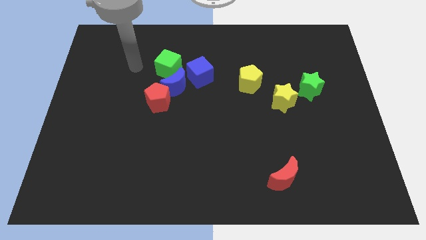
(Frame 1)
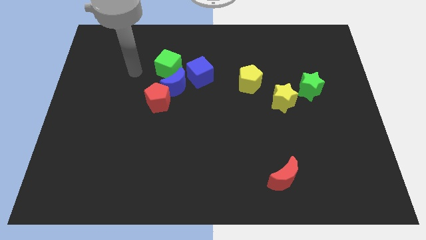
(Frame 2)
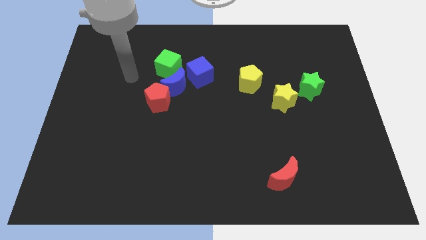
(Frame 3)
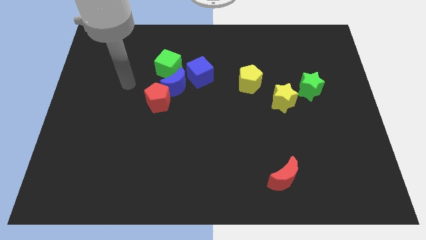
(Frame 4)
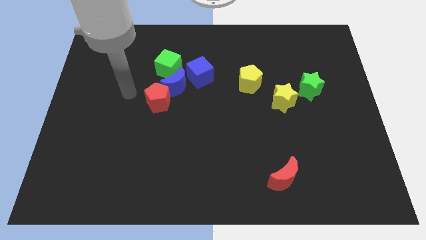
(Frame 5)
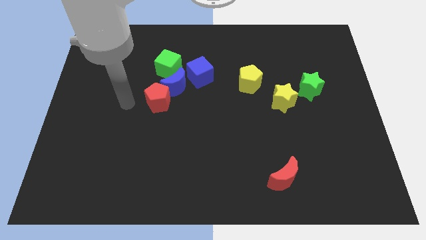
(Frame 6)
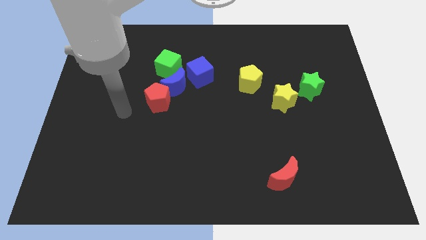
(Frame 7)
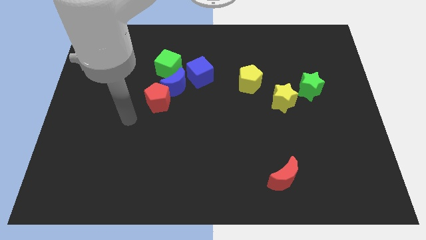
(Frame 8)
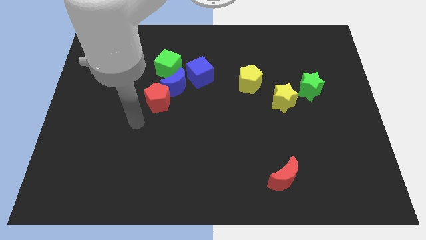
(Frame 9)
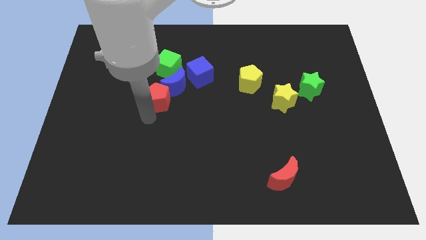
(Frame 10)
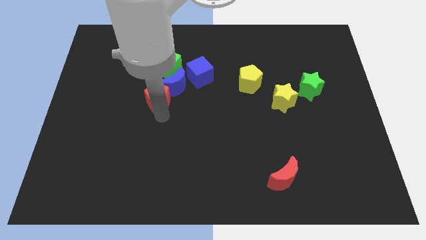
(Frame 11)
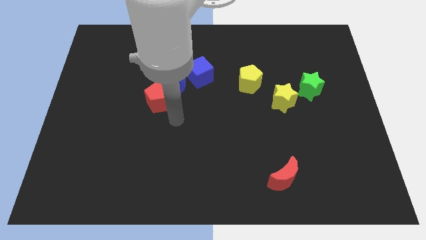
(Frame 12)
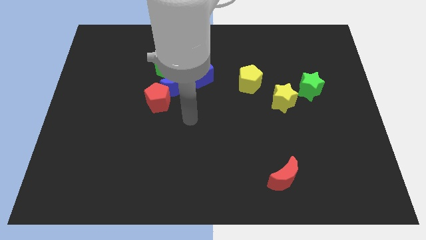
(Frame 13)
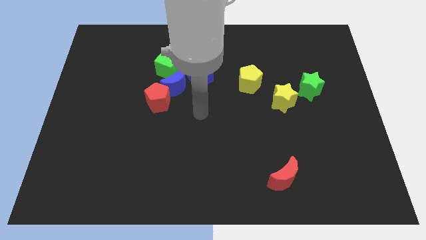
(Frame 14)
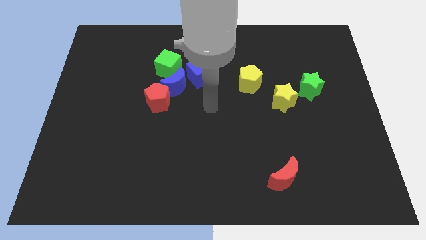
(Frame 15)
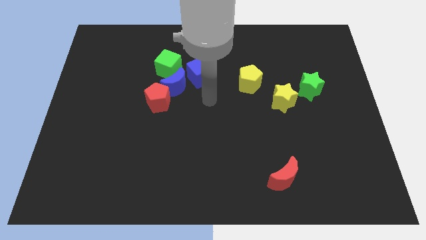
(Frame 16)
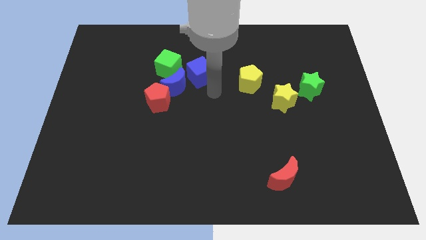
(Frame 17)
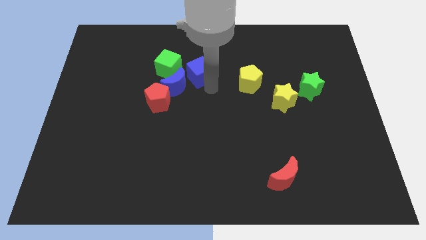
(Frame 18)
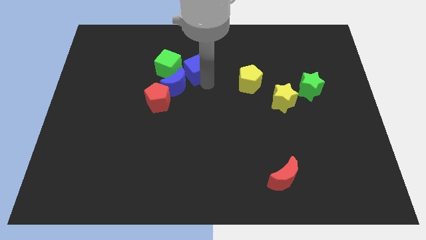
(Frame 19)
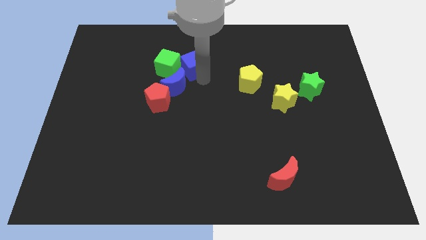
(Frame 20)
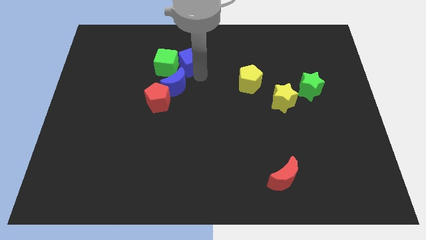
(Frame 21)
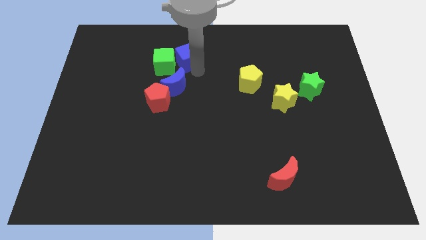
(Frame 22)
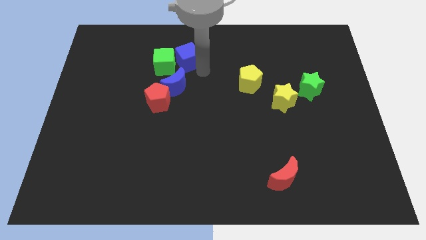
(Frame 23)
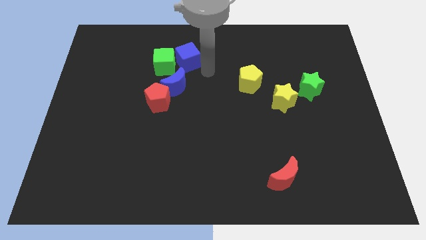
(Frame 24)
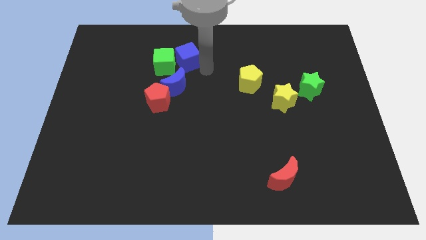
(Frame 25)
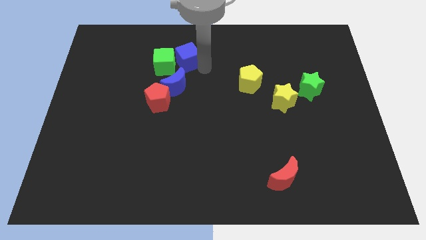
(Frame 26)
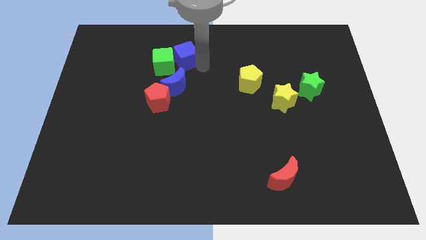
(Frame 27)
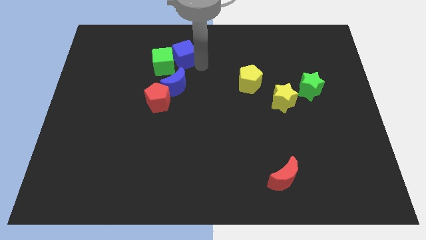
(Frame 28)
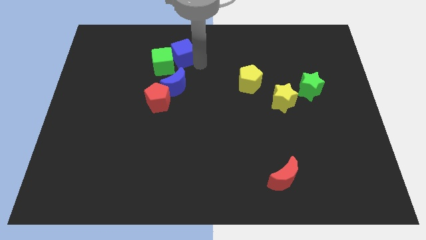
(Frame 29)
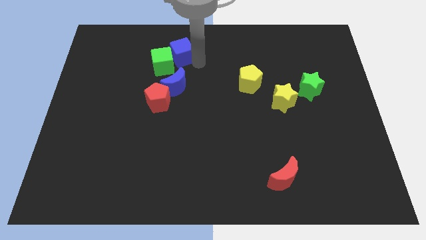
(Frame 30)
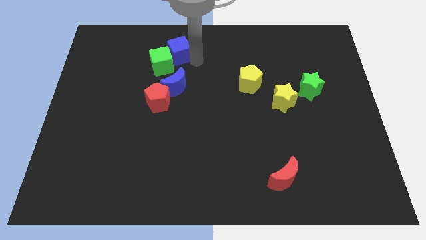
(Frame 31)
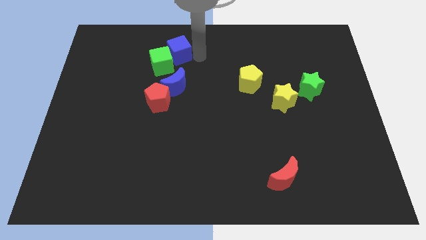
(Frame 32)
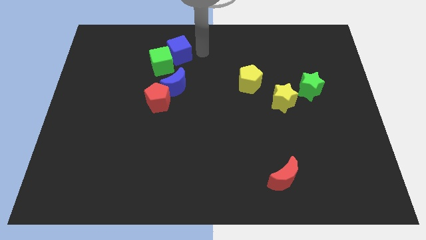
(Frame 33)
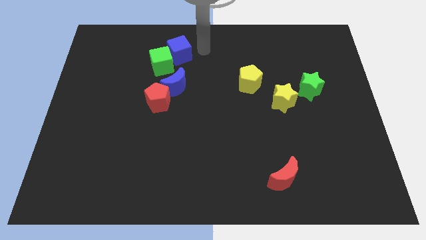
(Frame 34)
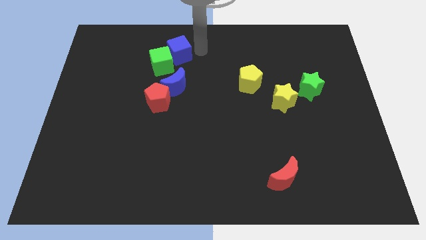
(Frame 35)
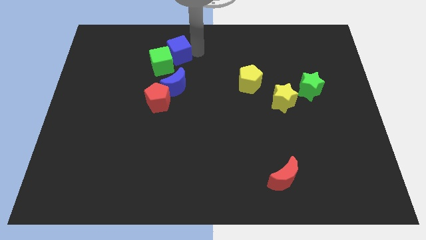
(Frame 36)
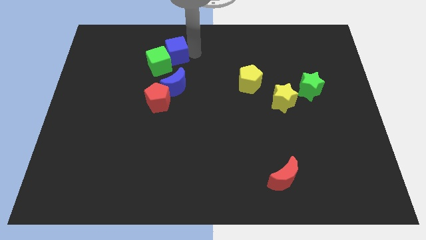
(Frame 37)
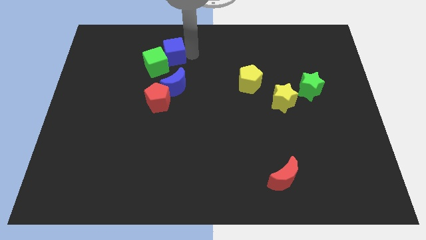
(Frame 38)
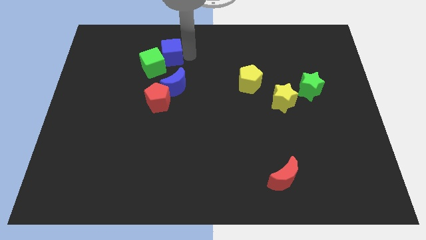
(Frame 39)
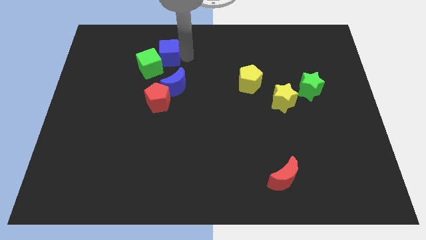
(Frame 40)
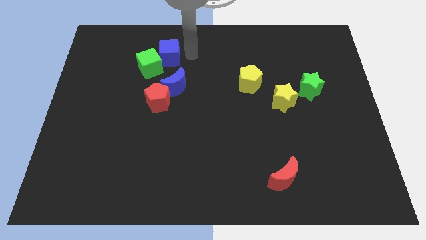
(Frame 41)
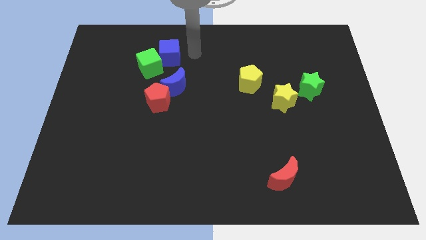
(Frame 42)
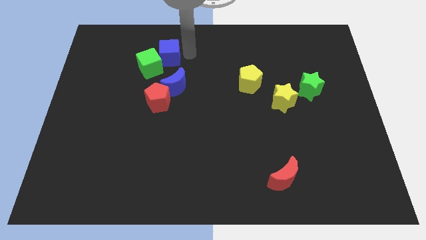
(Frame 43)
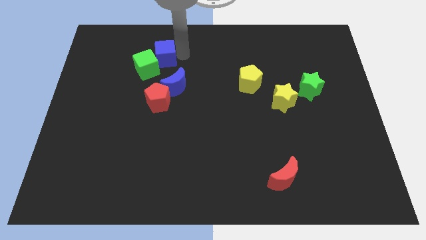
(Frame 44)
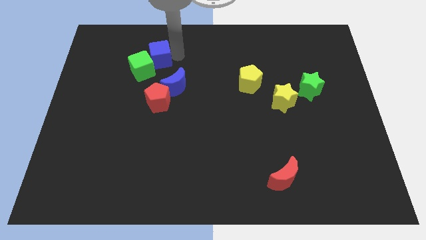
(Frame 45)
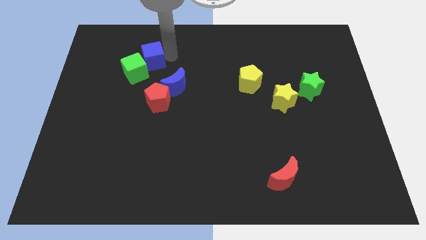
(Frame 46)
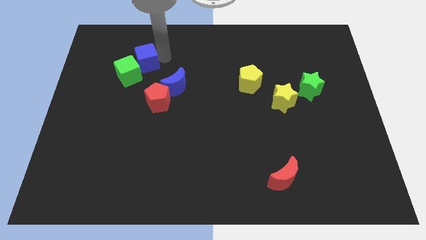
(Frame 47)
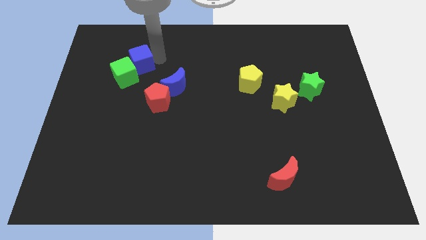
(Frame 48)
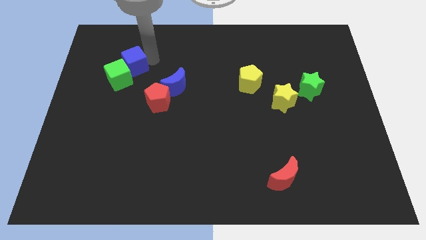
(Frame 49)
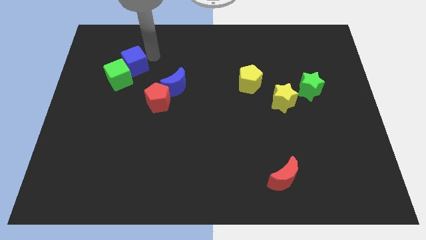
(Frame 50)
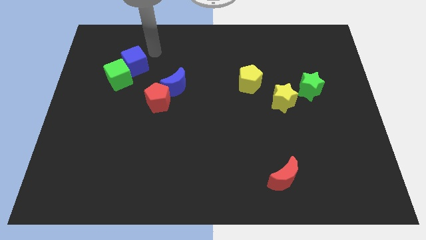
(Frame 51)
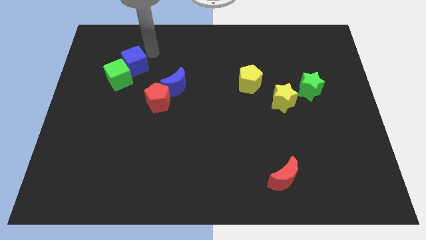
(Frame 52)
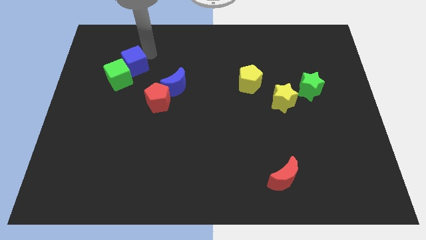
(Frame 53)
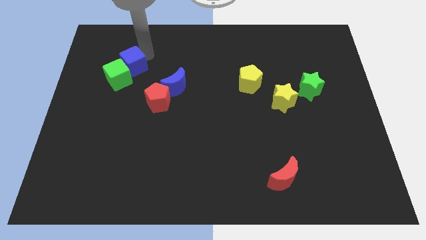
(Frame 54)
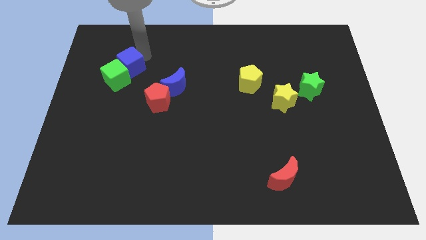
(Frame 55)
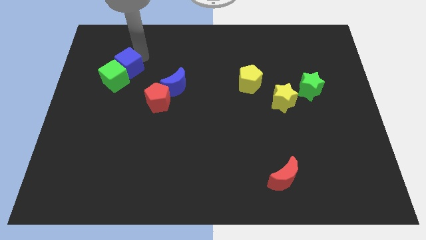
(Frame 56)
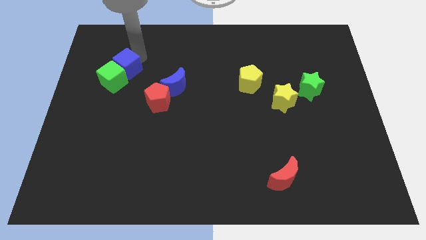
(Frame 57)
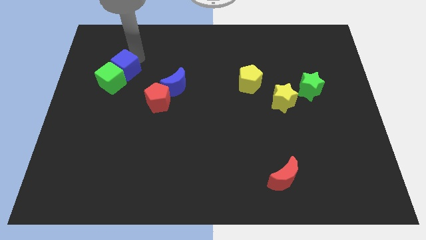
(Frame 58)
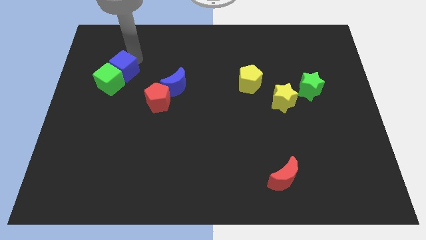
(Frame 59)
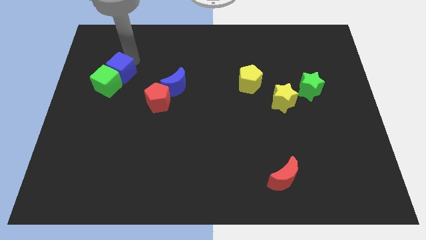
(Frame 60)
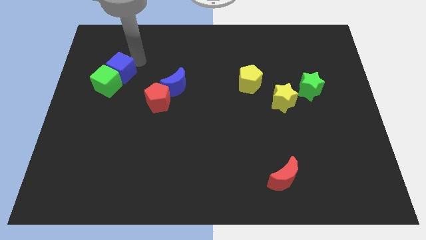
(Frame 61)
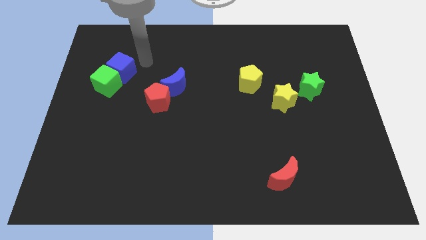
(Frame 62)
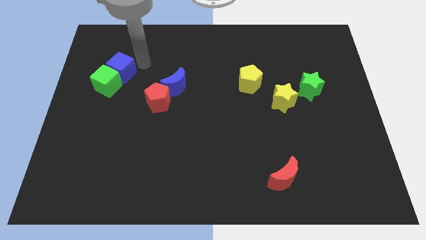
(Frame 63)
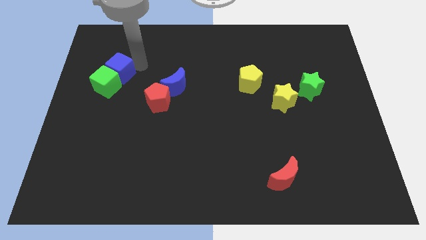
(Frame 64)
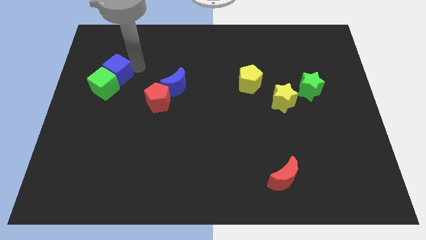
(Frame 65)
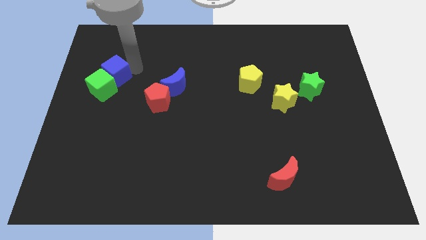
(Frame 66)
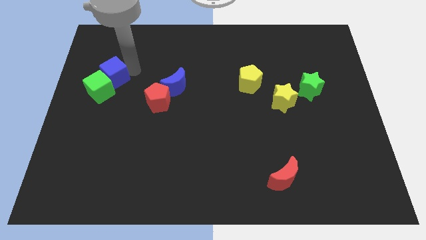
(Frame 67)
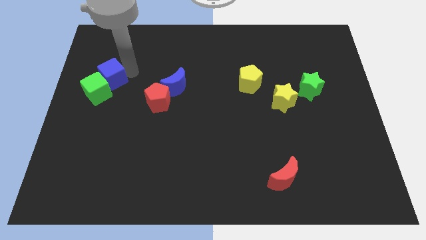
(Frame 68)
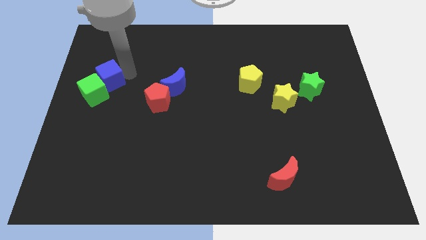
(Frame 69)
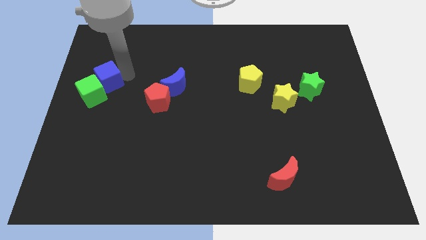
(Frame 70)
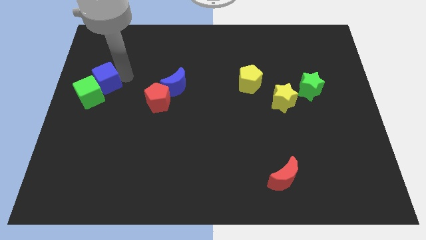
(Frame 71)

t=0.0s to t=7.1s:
put the blue cube to the left side
